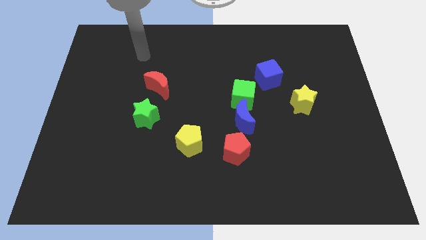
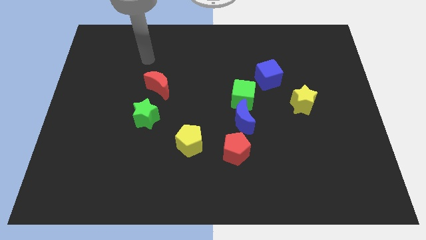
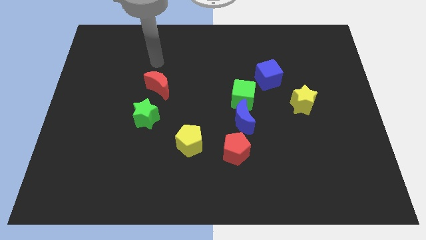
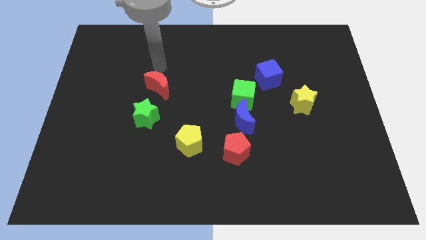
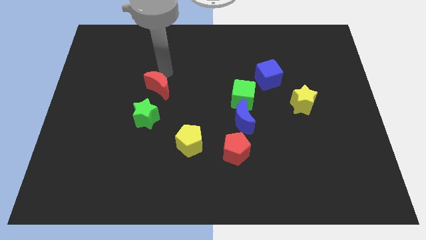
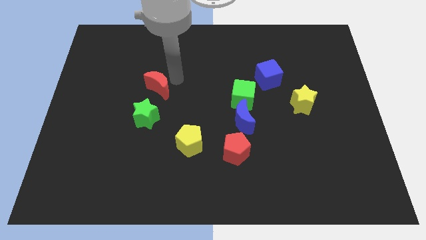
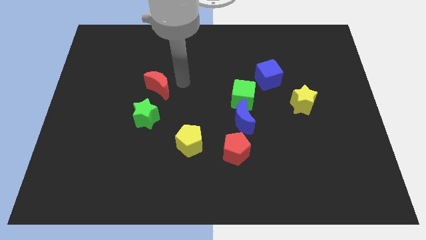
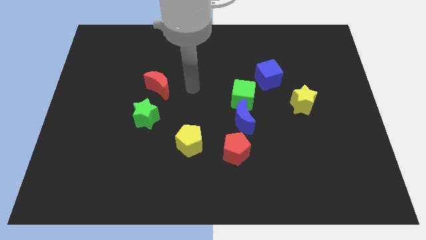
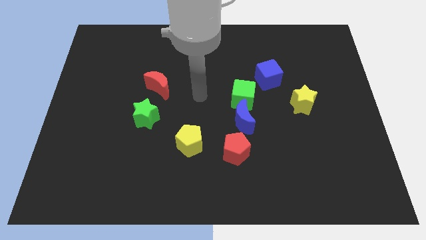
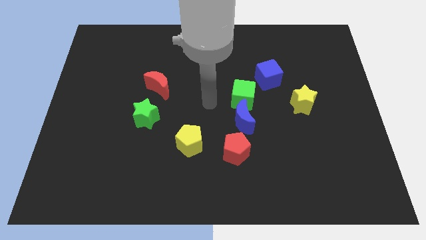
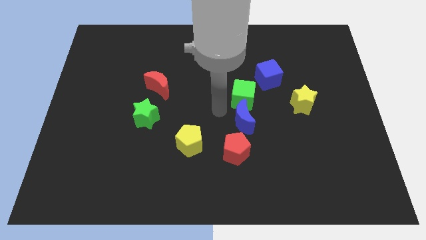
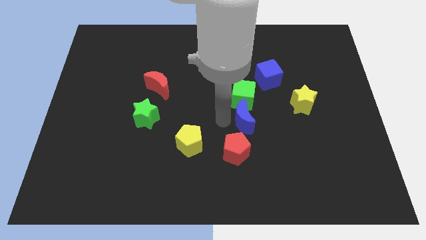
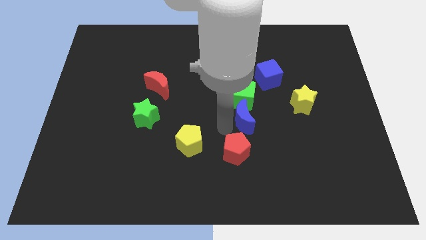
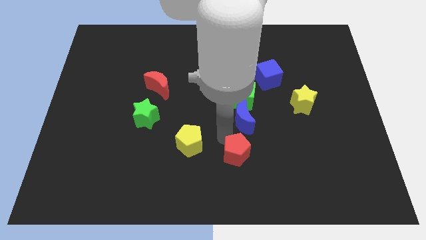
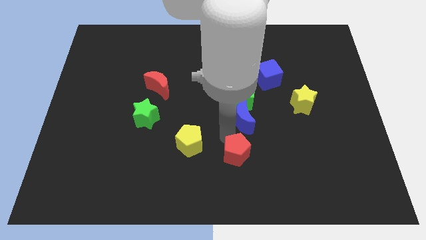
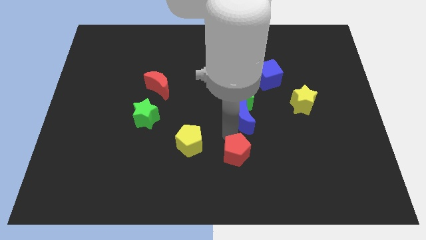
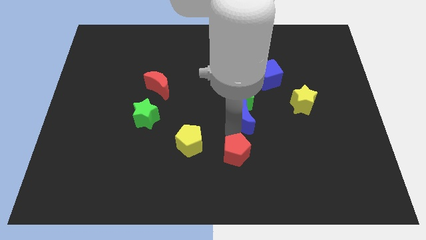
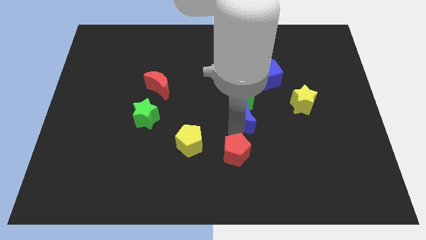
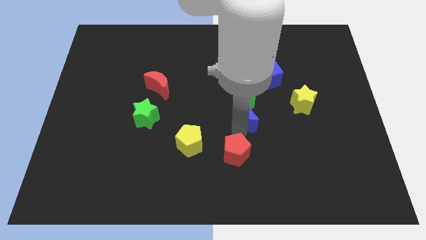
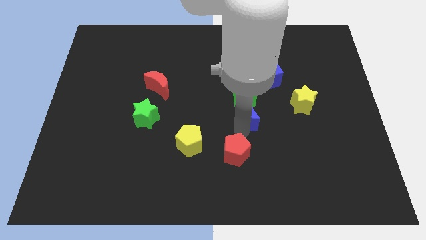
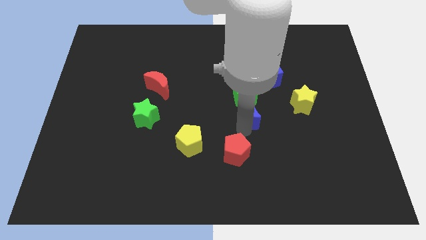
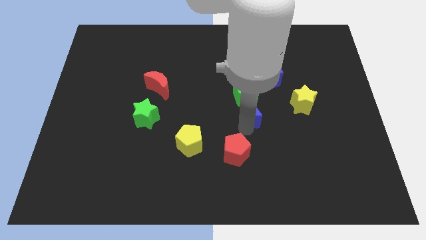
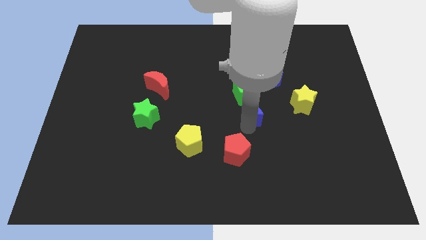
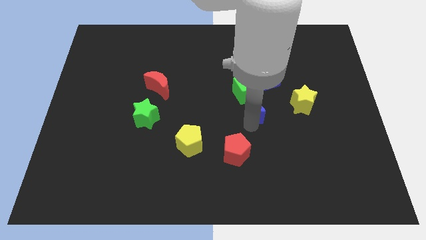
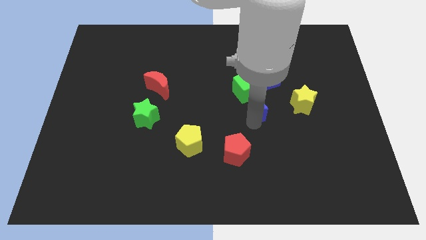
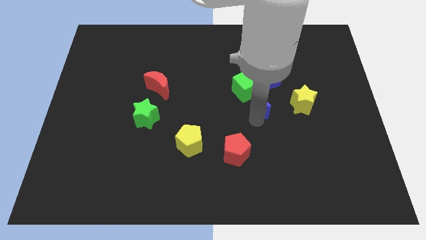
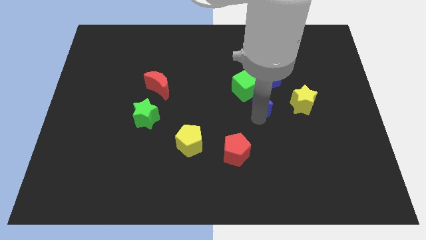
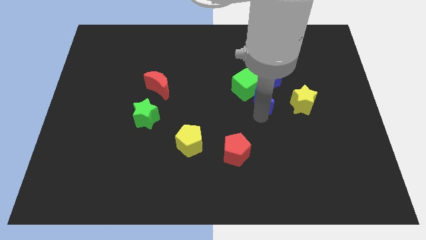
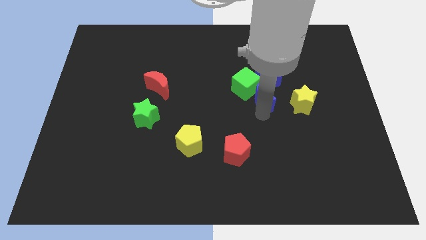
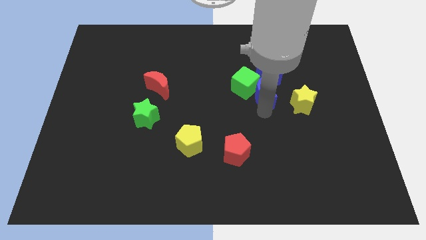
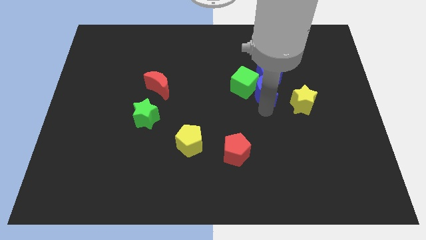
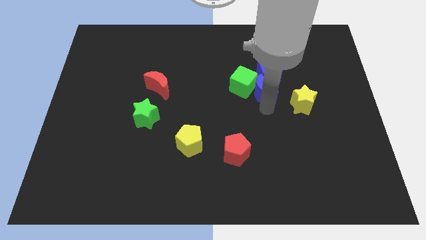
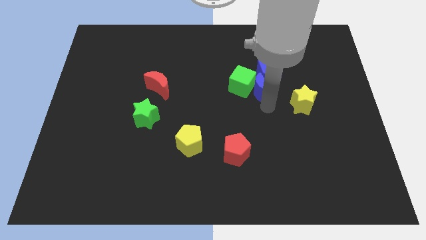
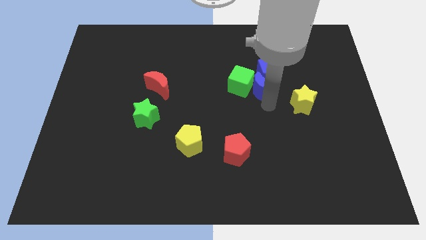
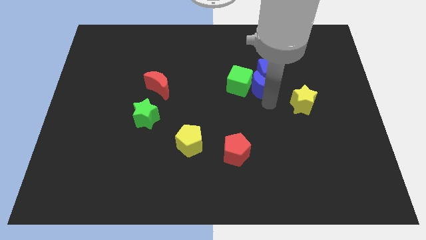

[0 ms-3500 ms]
pull the blue moon apart from the green cube and red pentagon

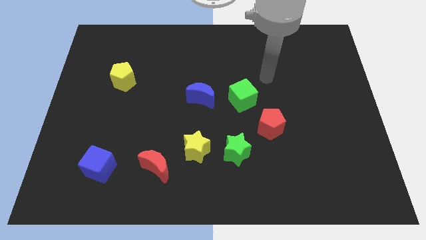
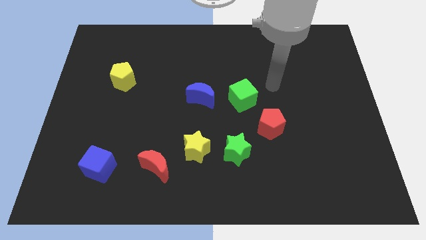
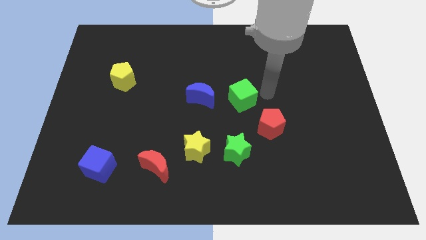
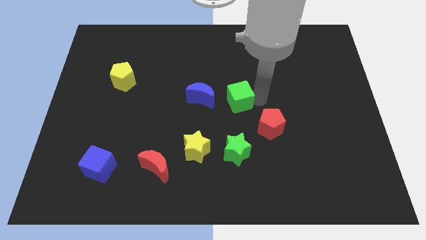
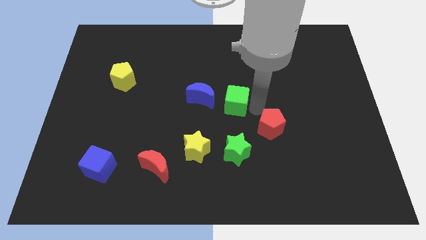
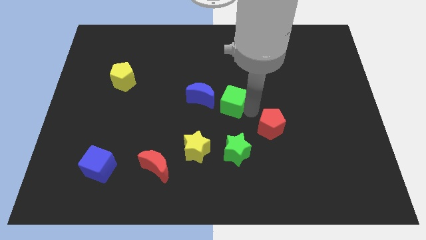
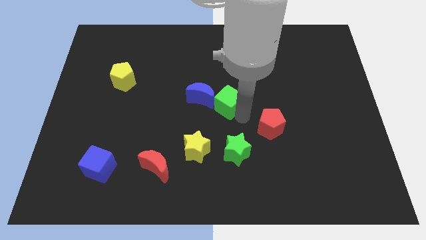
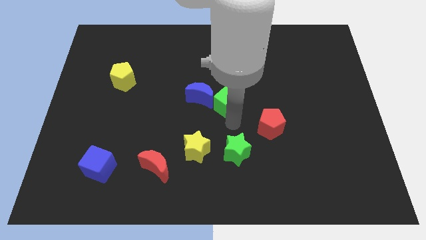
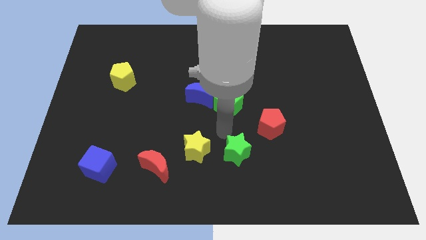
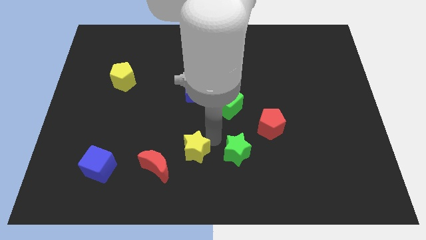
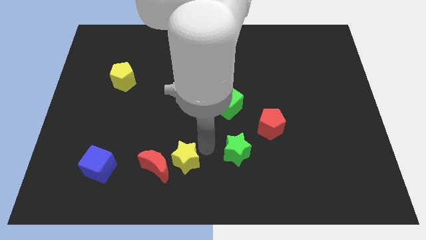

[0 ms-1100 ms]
pull the green star apart from the yellow star

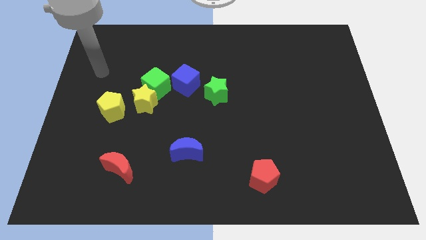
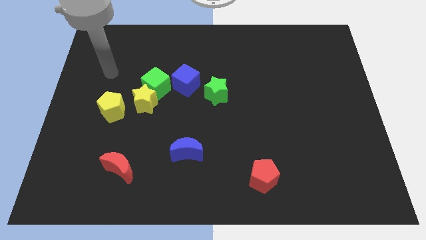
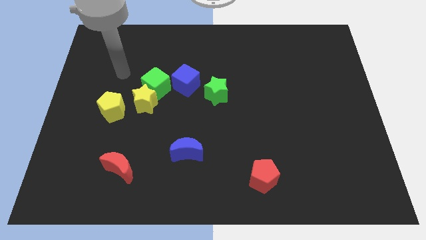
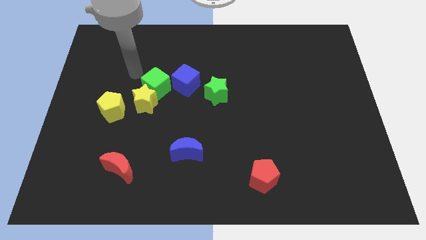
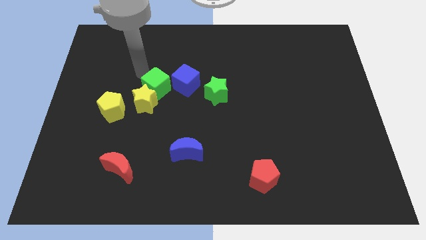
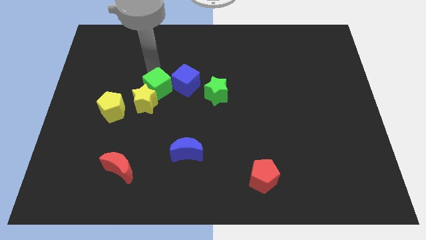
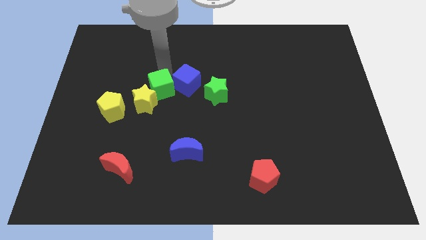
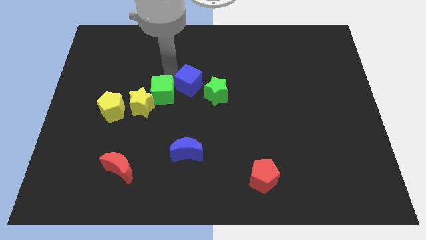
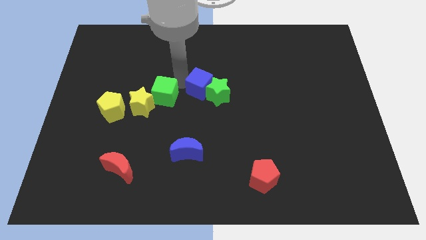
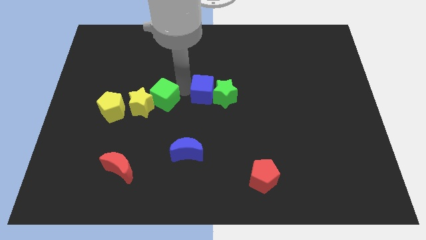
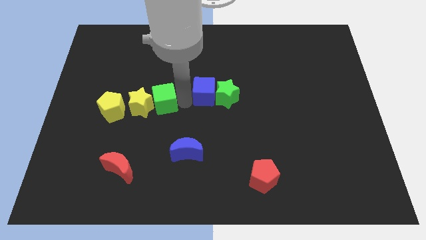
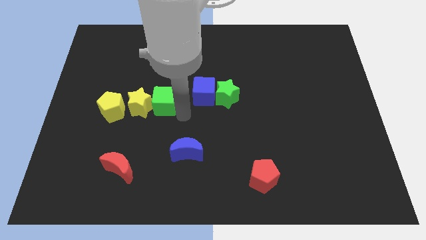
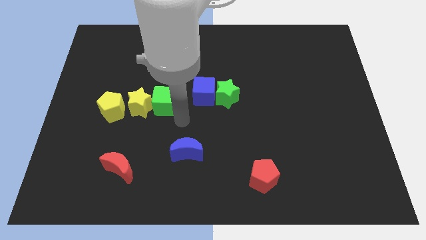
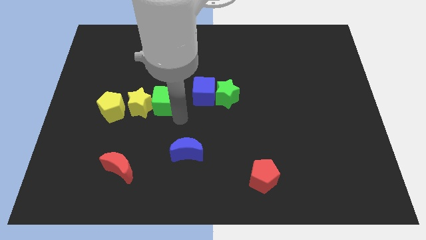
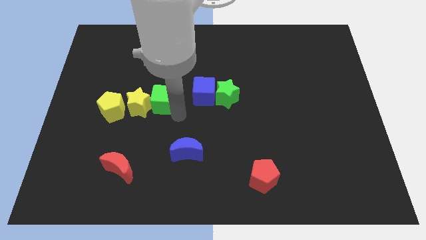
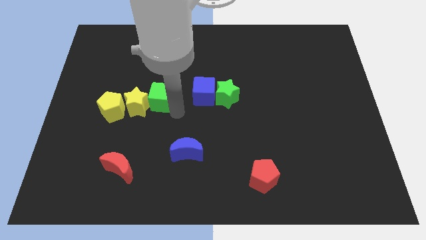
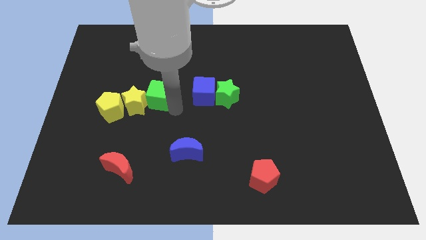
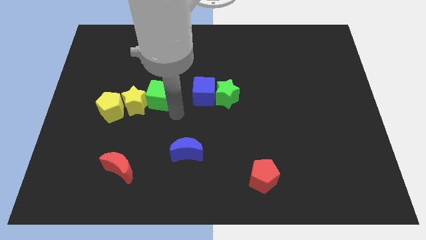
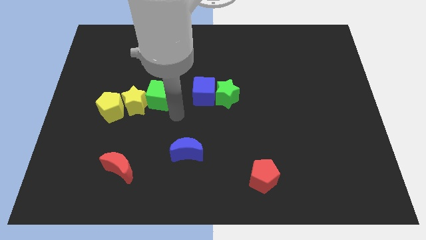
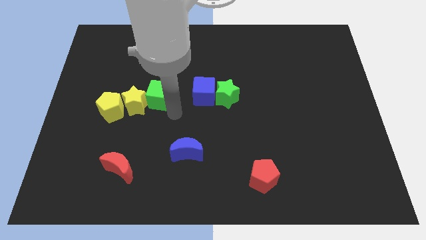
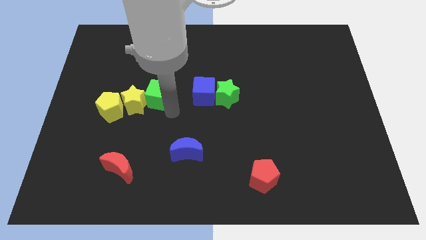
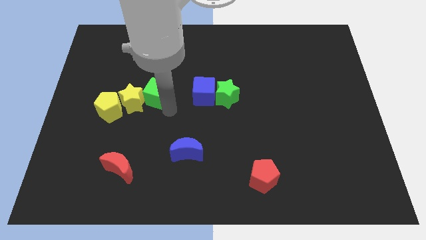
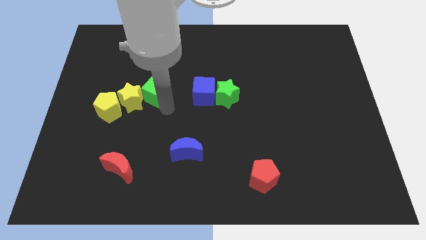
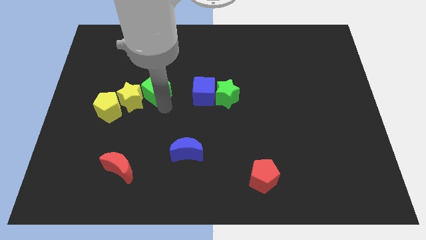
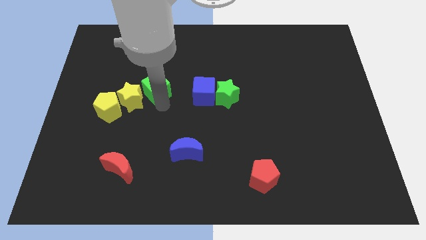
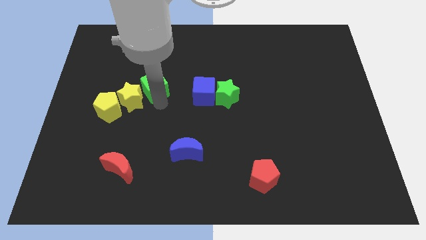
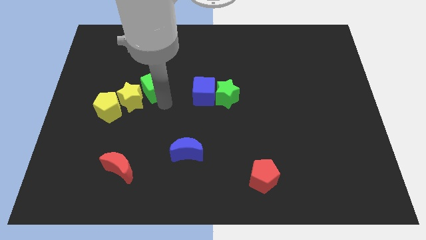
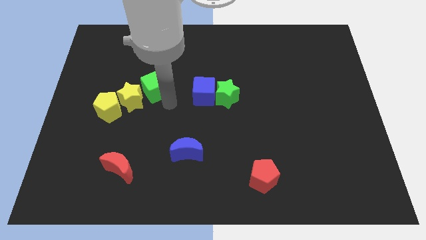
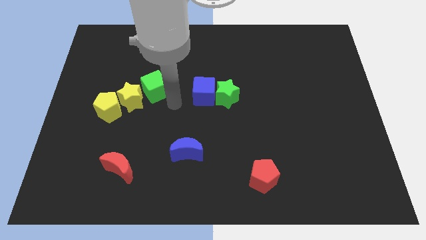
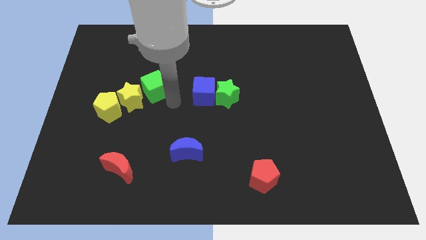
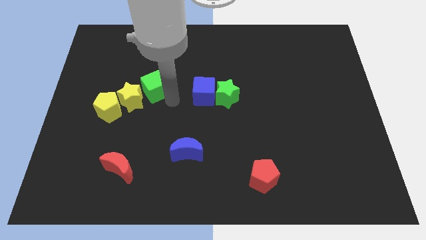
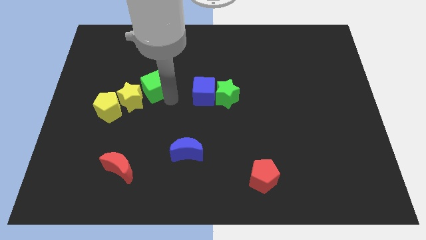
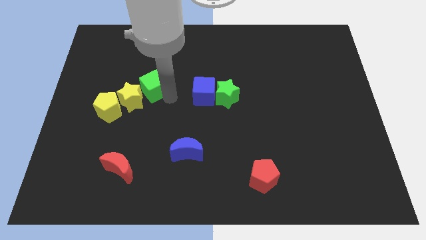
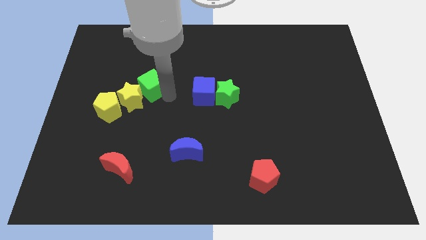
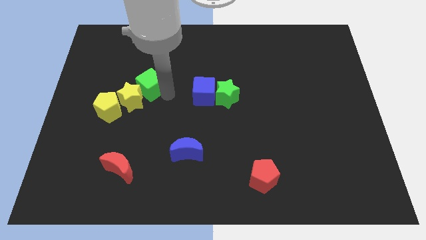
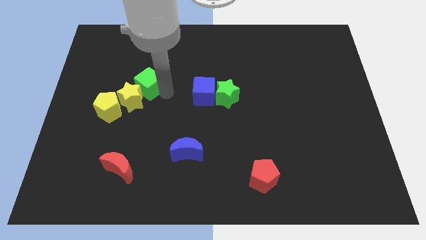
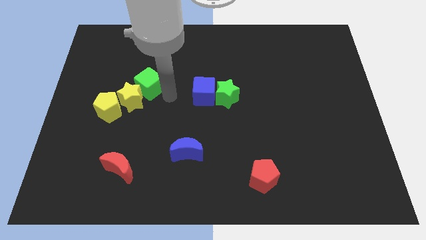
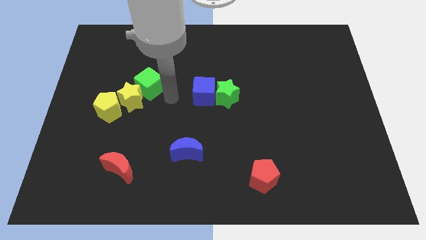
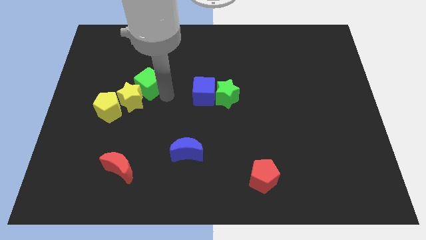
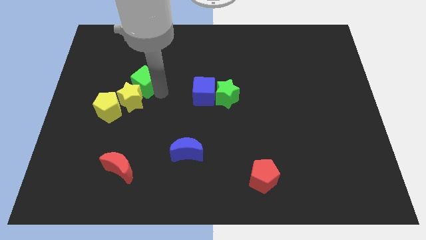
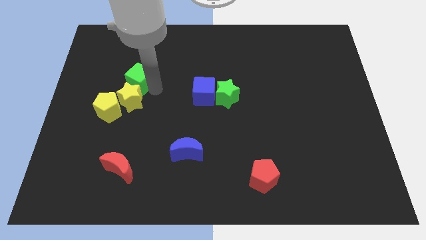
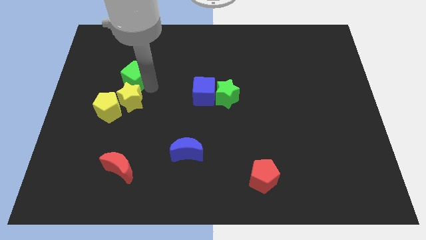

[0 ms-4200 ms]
move the green cube away from the yellow star and blue cube

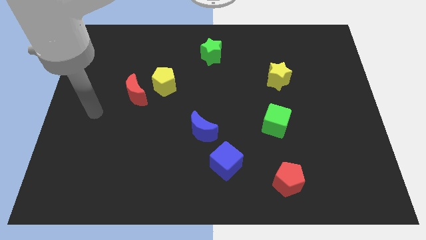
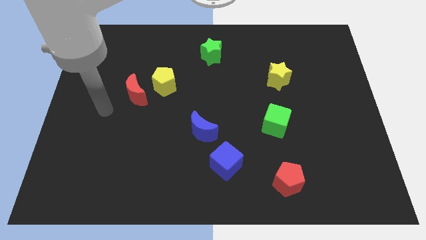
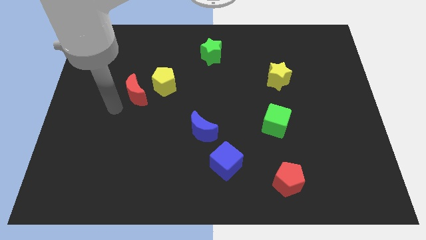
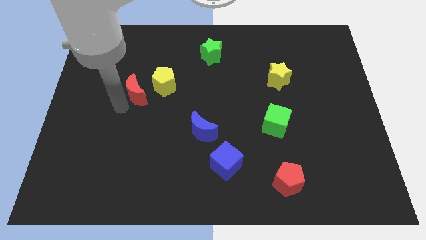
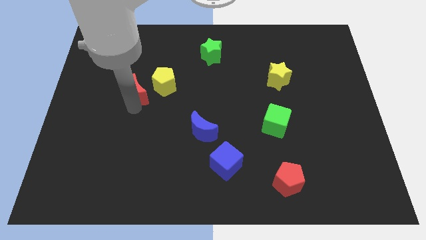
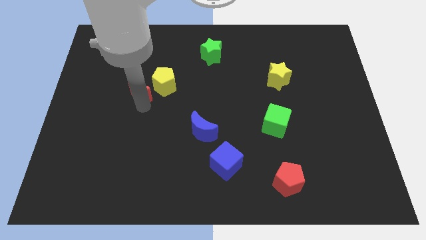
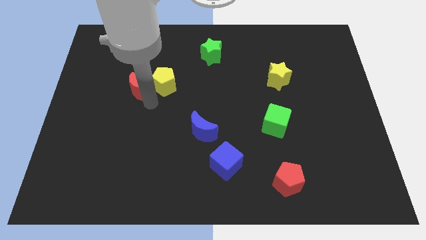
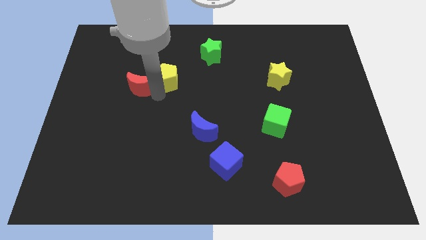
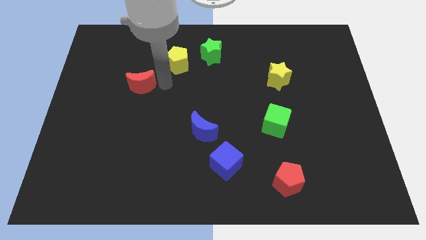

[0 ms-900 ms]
separate the red moon from the yellow pentagon
